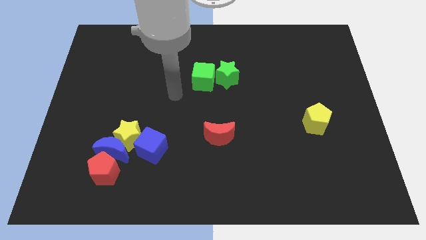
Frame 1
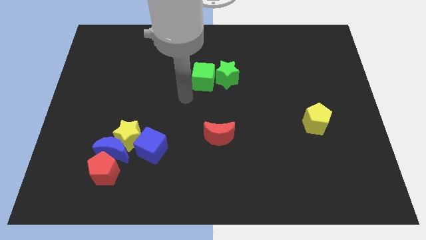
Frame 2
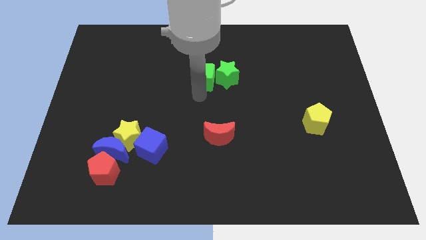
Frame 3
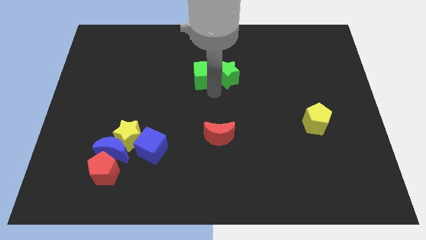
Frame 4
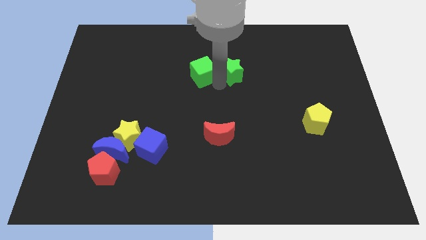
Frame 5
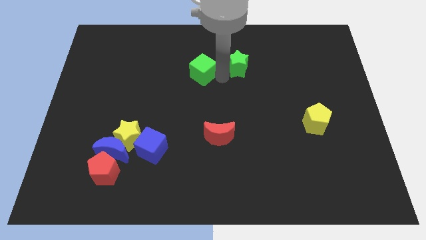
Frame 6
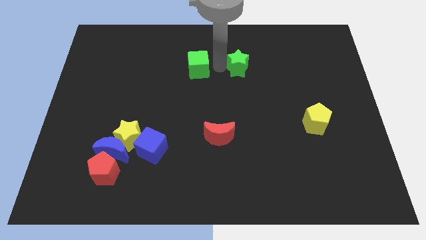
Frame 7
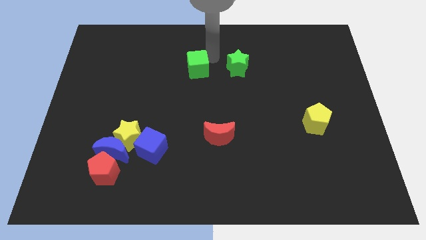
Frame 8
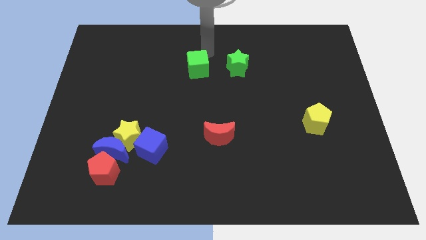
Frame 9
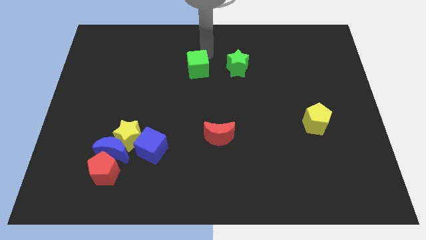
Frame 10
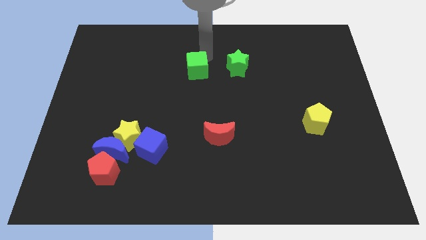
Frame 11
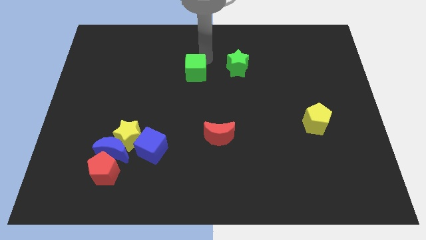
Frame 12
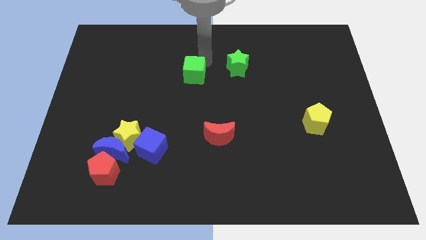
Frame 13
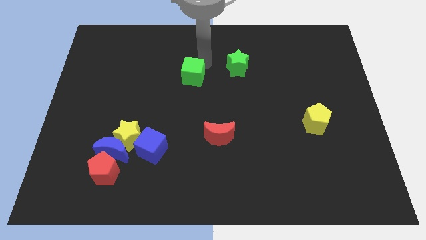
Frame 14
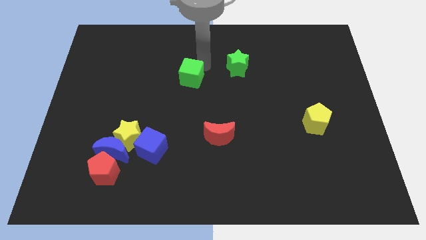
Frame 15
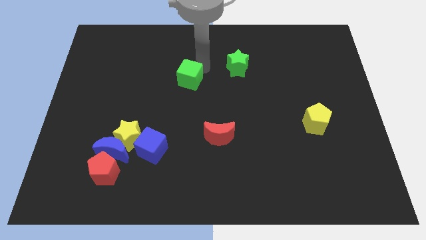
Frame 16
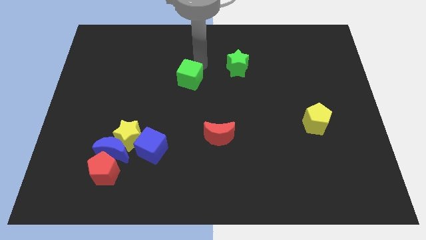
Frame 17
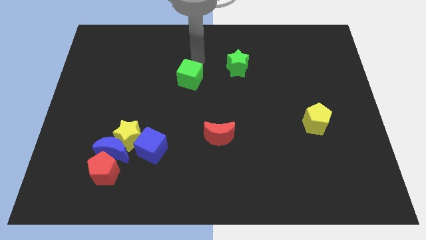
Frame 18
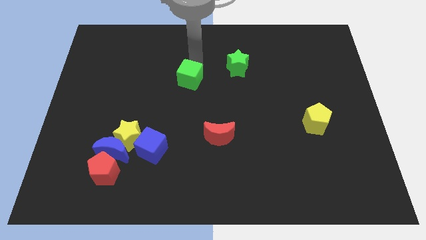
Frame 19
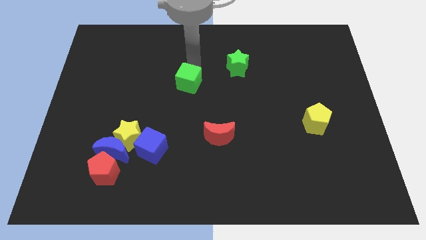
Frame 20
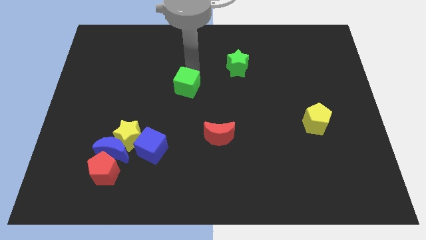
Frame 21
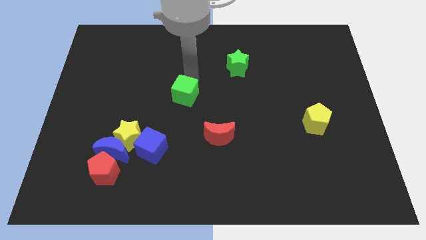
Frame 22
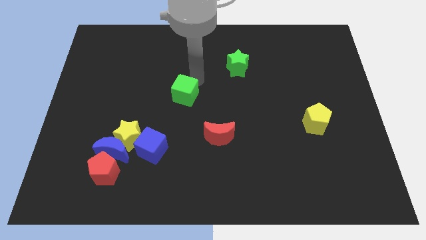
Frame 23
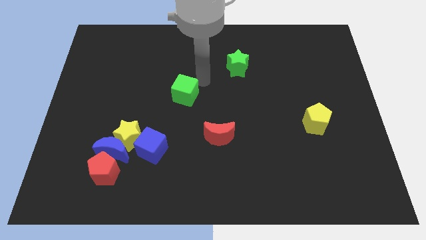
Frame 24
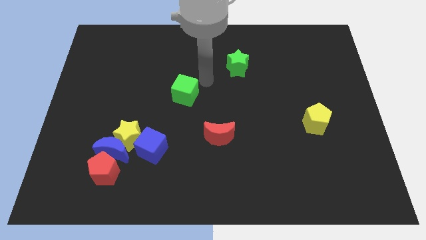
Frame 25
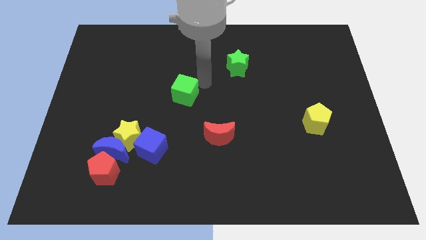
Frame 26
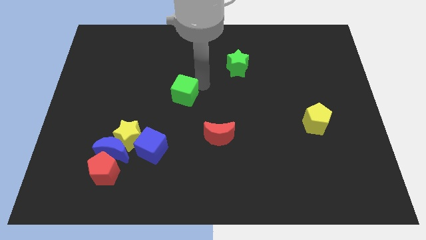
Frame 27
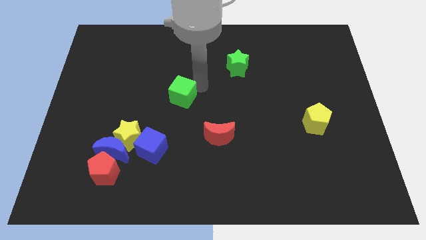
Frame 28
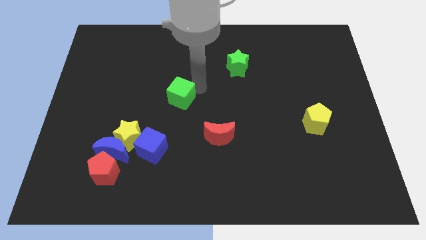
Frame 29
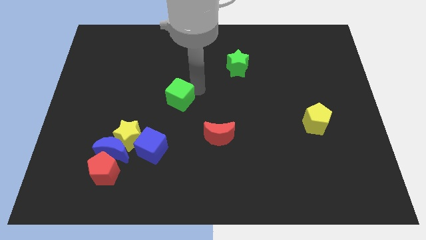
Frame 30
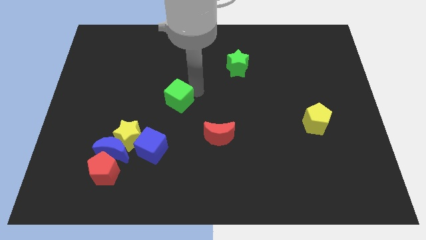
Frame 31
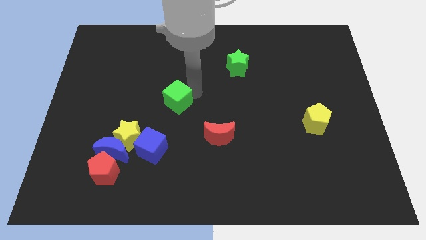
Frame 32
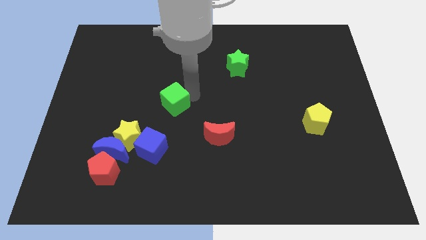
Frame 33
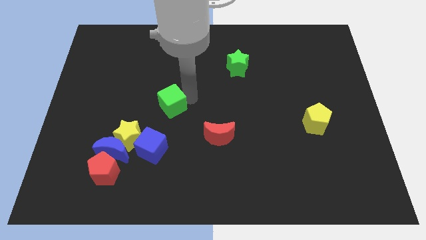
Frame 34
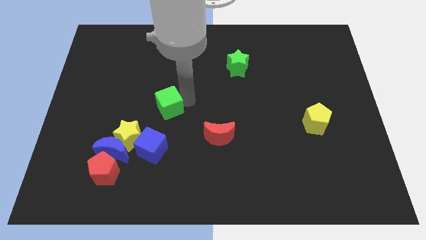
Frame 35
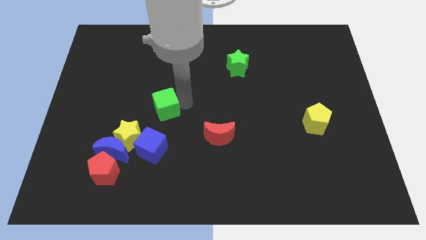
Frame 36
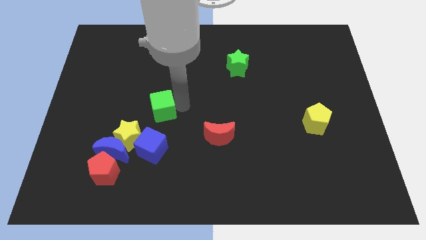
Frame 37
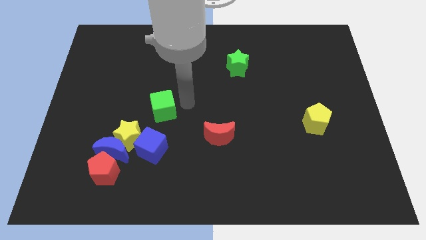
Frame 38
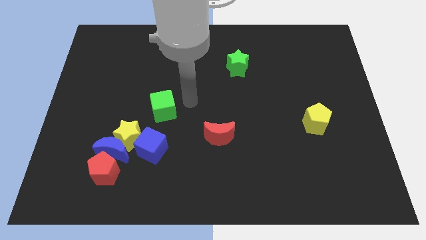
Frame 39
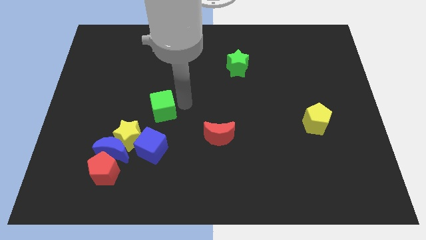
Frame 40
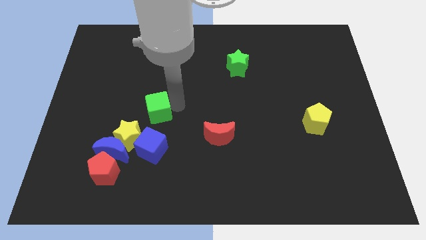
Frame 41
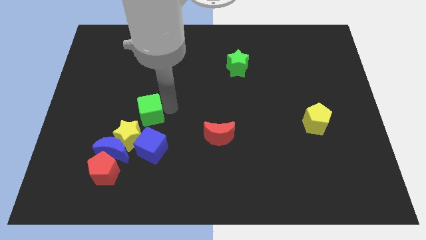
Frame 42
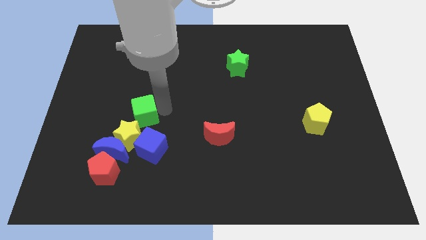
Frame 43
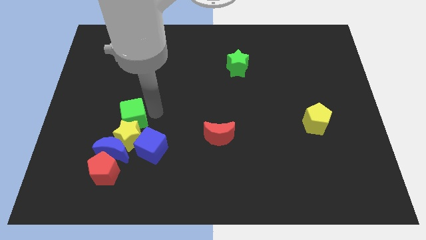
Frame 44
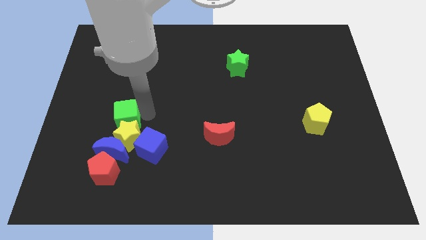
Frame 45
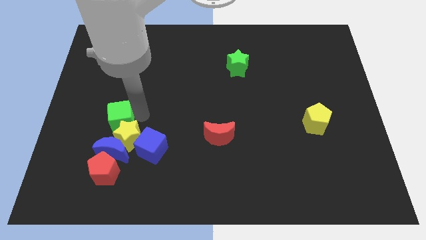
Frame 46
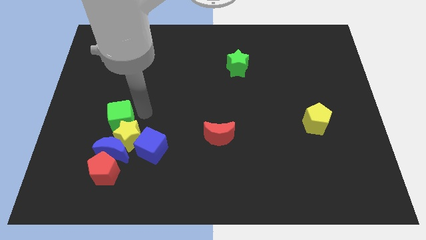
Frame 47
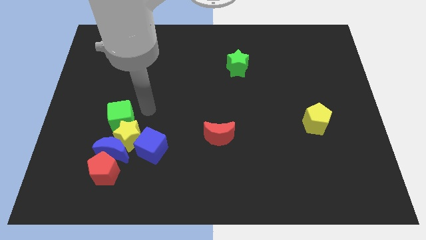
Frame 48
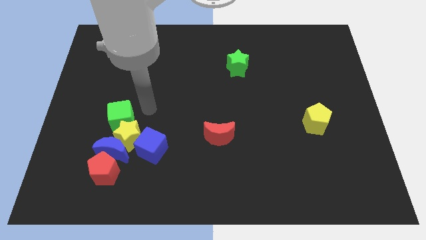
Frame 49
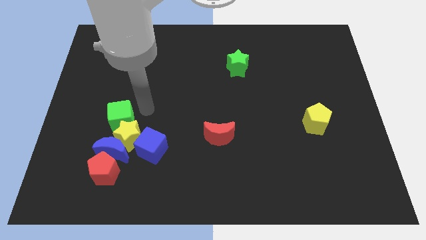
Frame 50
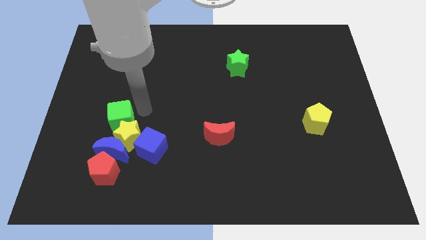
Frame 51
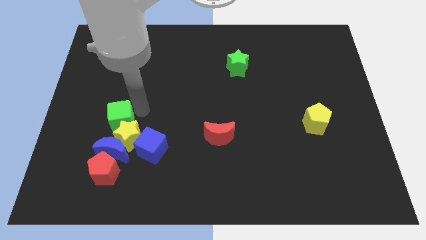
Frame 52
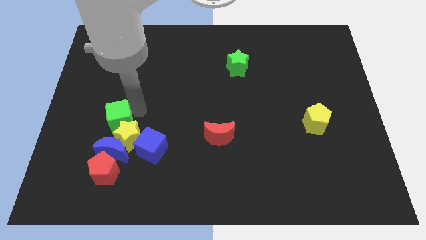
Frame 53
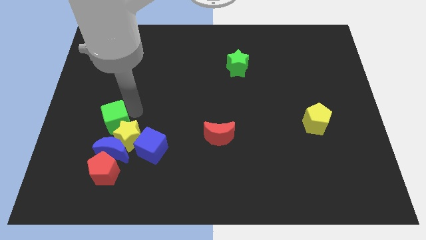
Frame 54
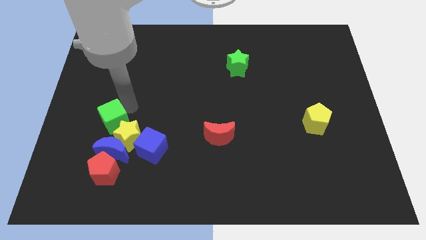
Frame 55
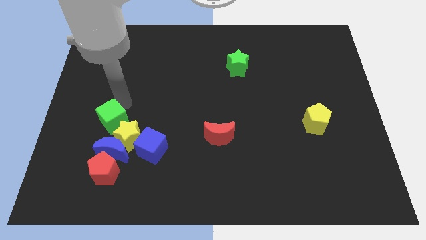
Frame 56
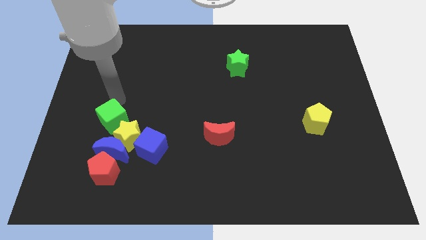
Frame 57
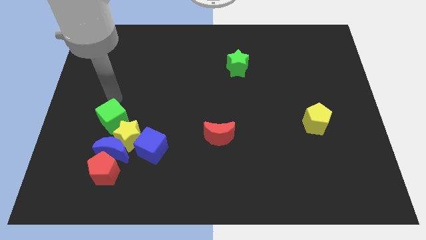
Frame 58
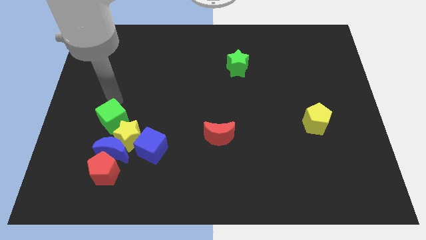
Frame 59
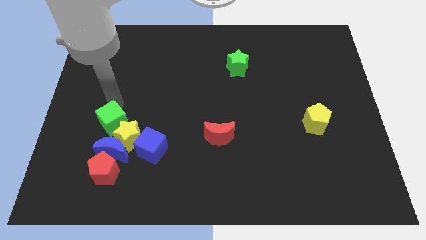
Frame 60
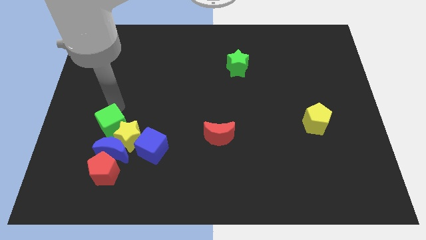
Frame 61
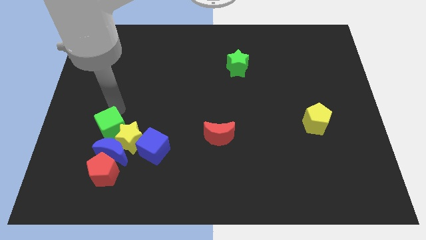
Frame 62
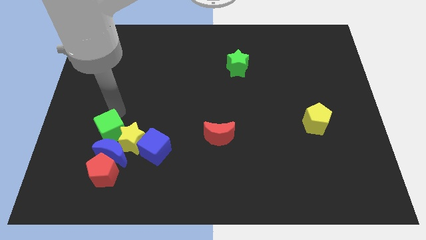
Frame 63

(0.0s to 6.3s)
move the green cube close to the blue moon

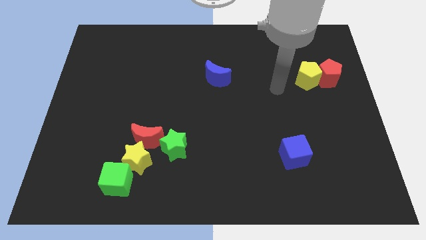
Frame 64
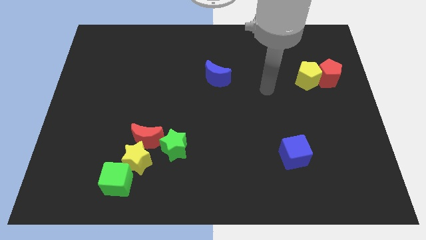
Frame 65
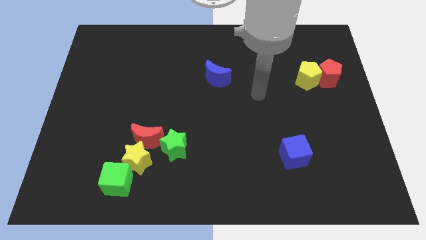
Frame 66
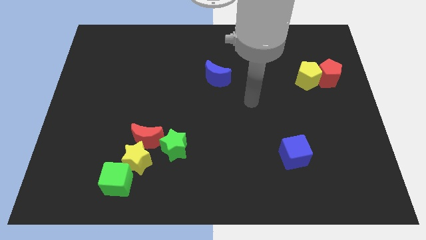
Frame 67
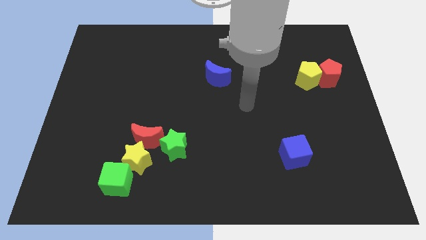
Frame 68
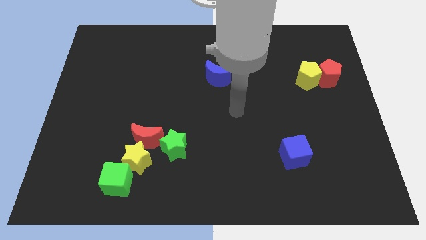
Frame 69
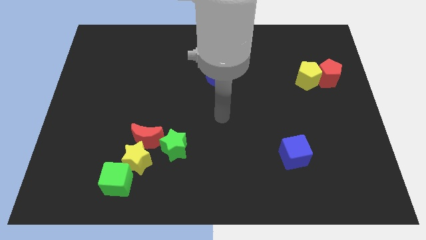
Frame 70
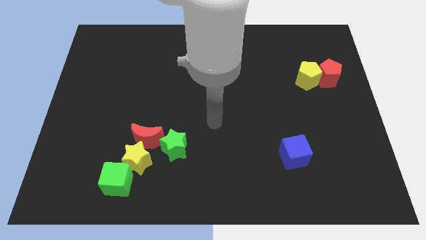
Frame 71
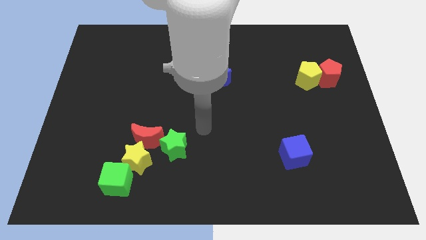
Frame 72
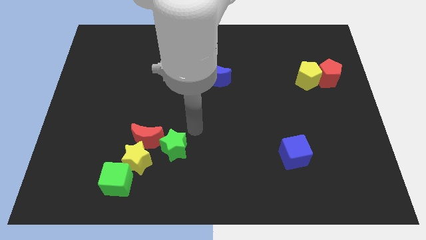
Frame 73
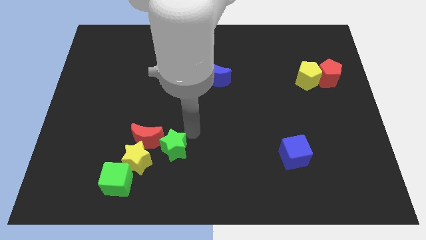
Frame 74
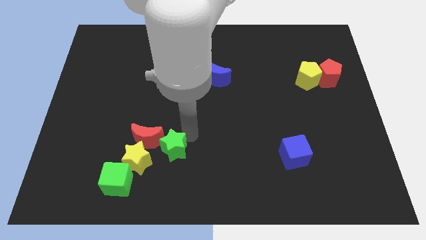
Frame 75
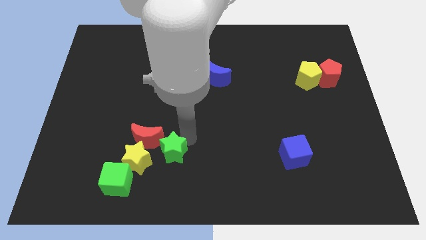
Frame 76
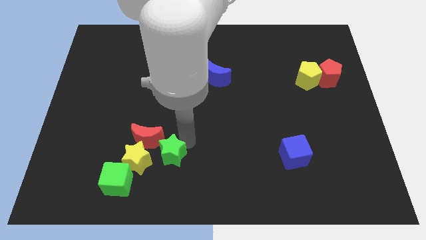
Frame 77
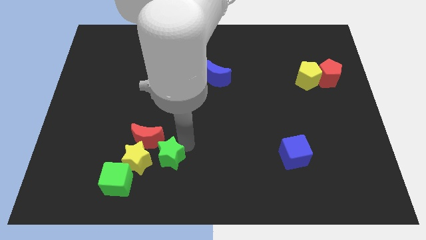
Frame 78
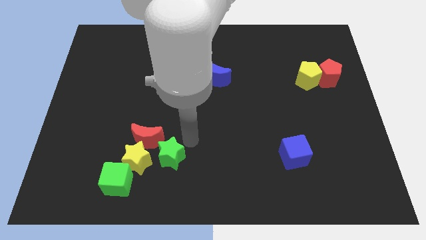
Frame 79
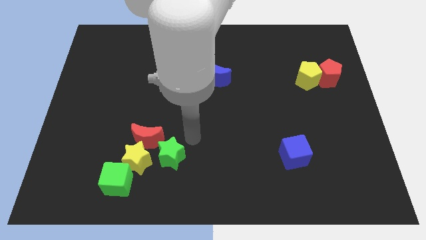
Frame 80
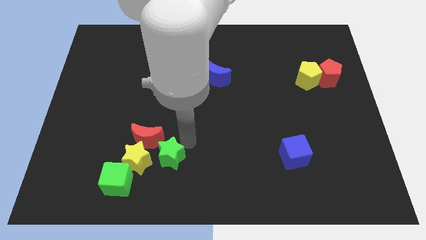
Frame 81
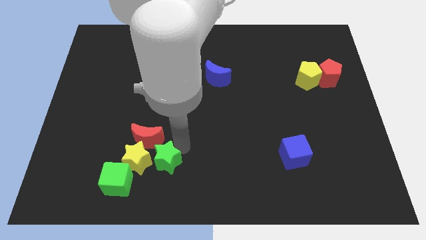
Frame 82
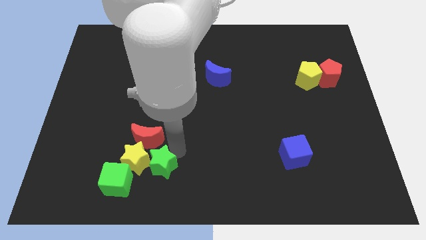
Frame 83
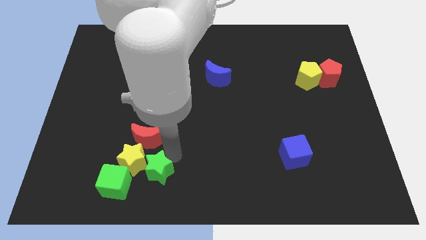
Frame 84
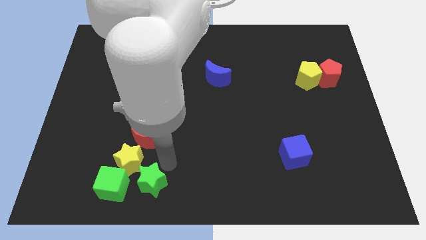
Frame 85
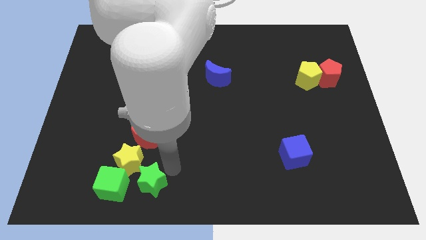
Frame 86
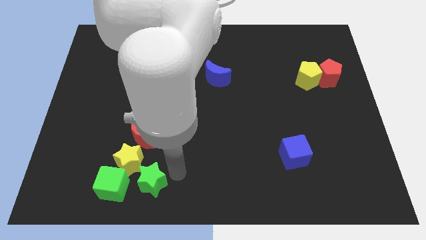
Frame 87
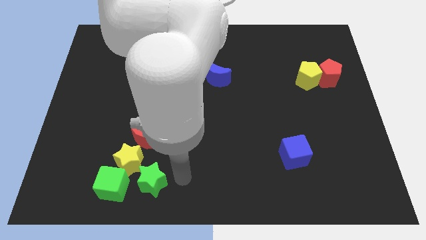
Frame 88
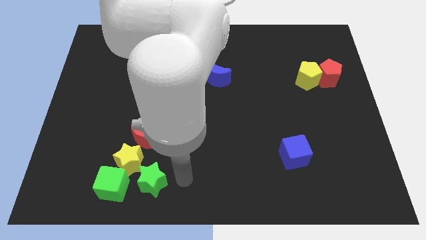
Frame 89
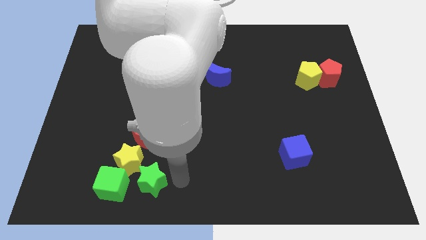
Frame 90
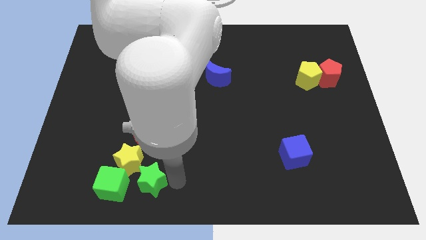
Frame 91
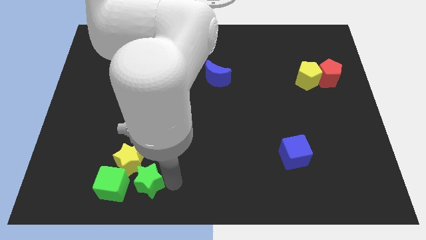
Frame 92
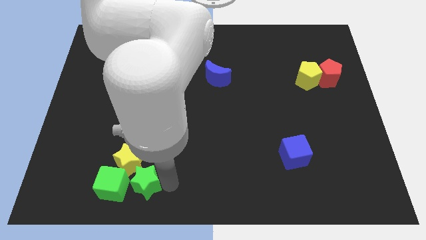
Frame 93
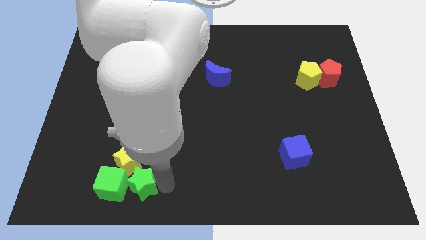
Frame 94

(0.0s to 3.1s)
put the green star next to the green cube
